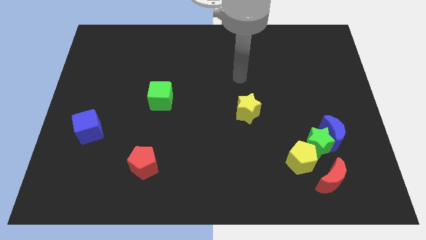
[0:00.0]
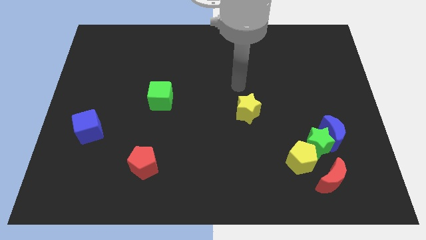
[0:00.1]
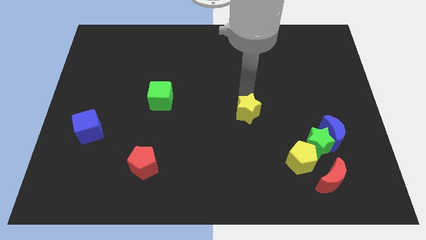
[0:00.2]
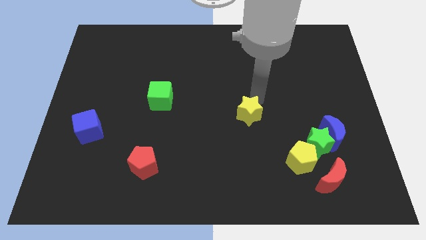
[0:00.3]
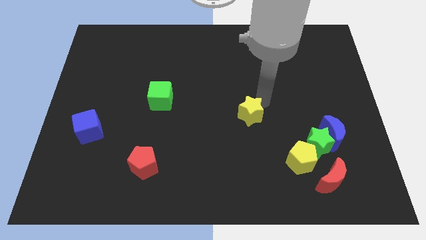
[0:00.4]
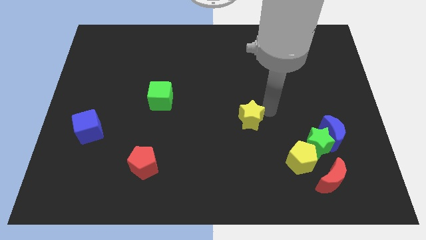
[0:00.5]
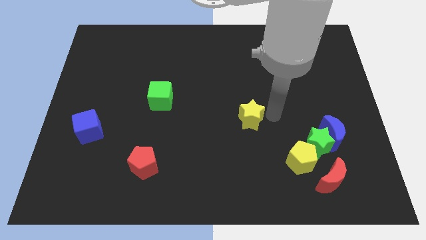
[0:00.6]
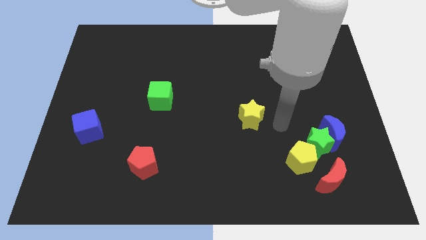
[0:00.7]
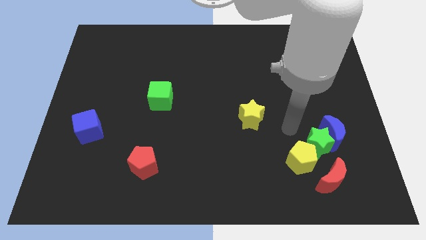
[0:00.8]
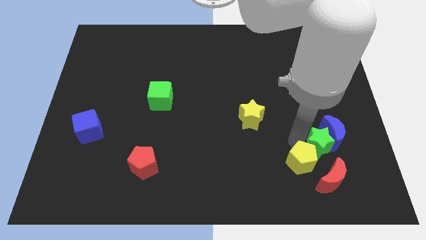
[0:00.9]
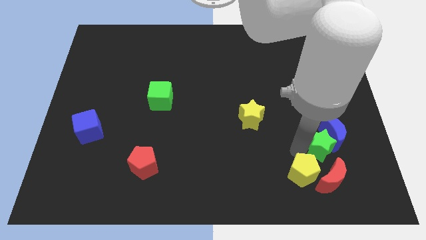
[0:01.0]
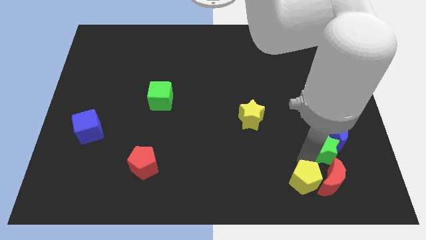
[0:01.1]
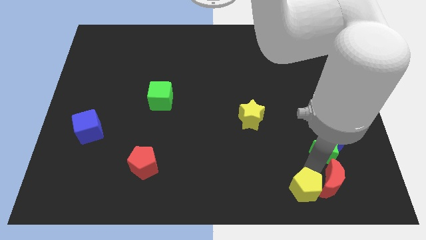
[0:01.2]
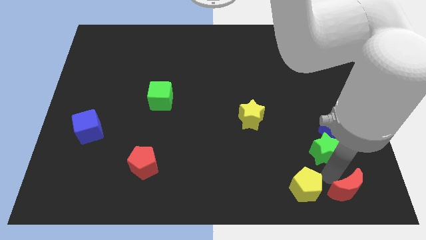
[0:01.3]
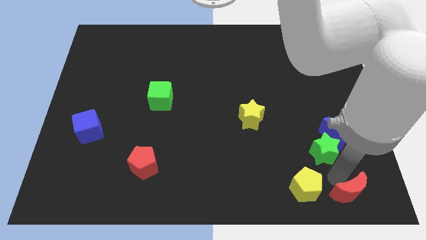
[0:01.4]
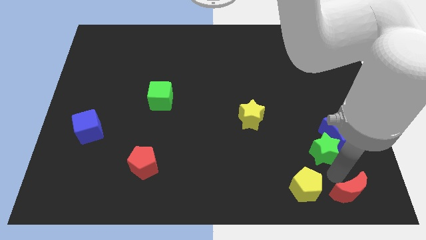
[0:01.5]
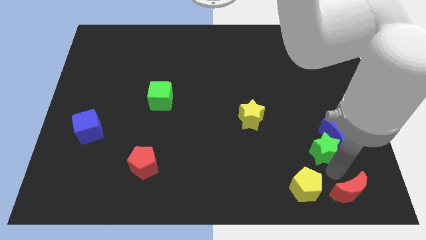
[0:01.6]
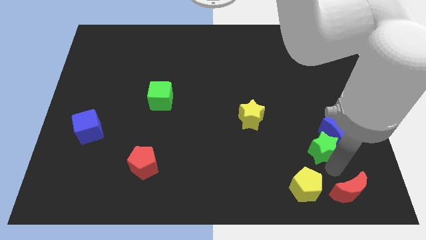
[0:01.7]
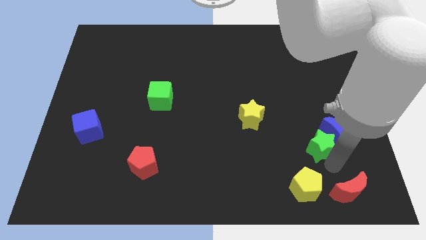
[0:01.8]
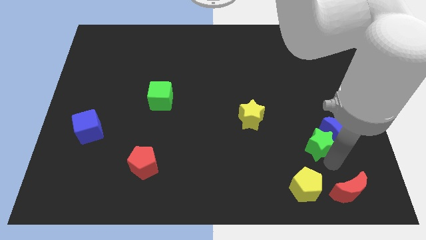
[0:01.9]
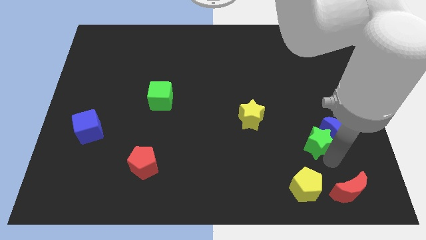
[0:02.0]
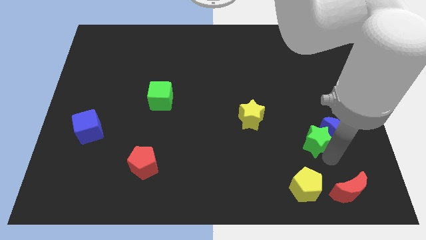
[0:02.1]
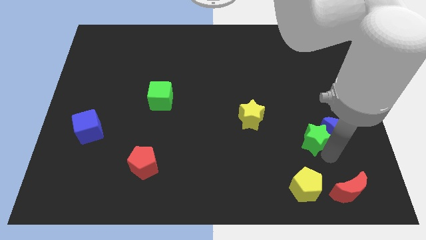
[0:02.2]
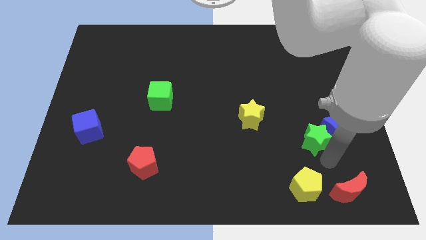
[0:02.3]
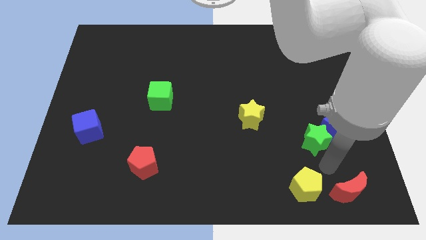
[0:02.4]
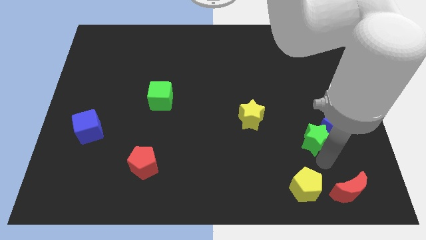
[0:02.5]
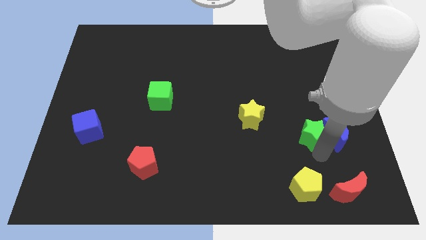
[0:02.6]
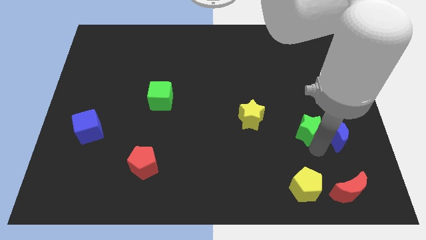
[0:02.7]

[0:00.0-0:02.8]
move the green star away from the blue moon, yellow pentagon, and red moon

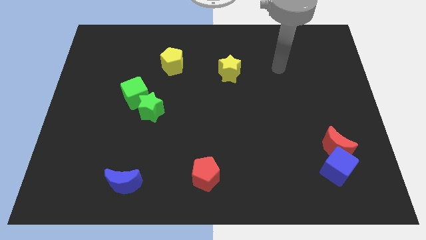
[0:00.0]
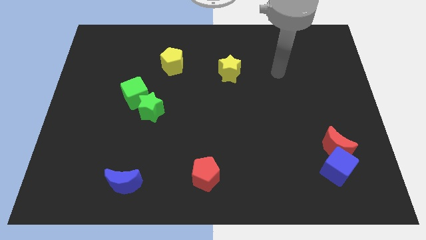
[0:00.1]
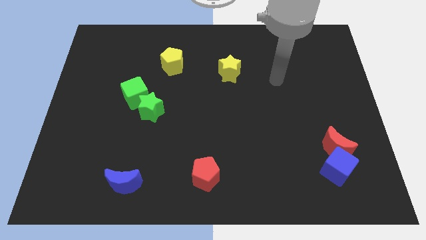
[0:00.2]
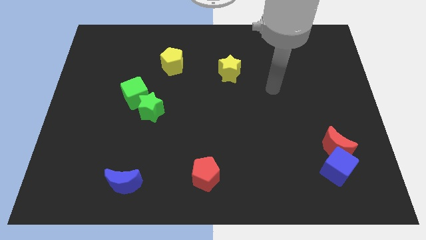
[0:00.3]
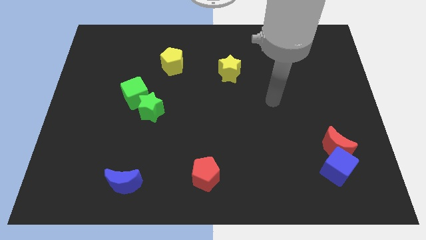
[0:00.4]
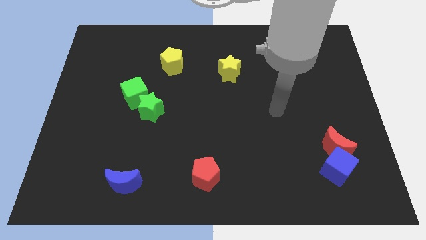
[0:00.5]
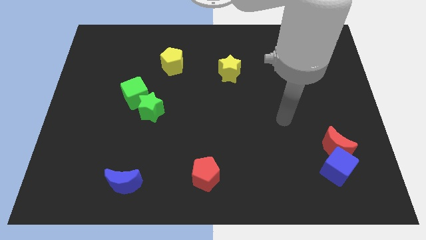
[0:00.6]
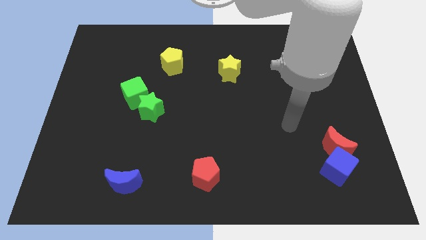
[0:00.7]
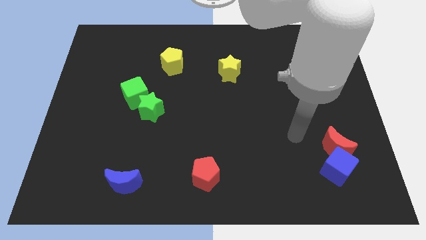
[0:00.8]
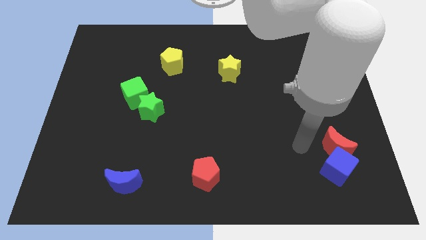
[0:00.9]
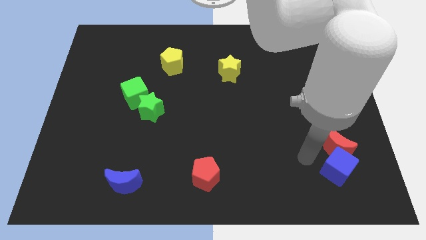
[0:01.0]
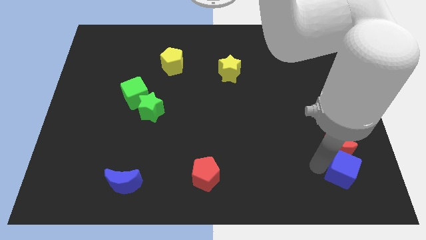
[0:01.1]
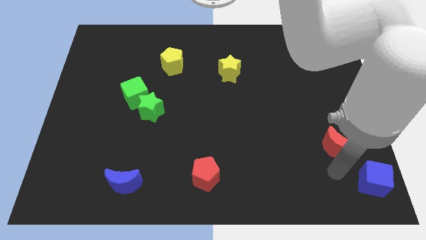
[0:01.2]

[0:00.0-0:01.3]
separate the red moon from the blue cube

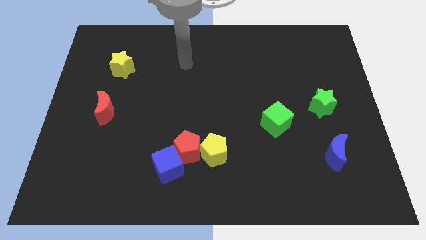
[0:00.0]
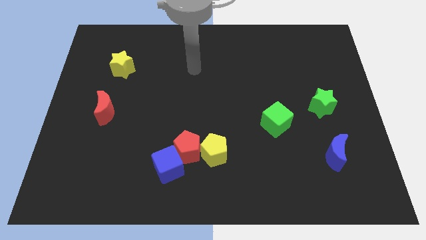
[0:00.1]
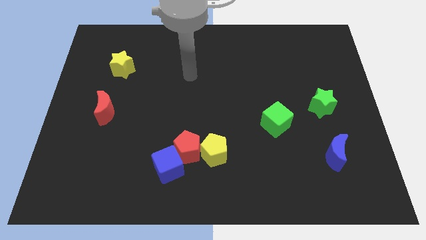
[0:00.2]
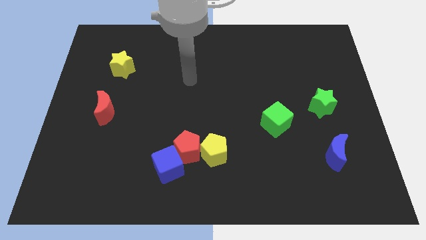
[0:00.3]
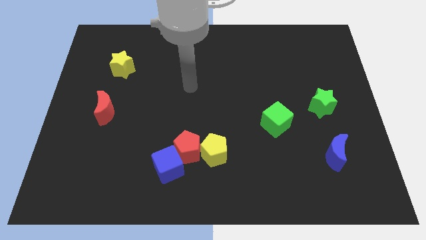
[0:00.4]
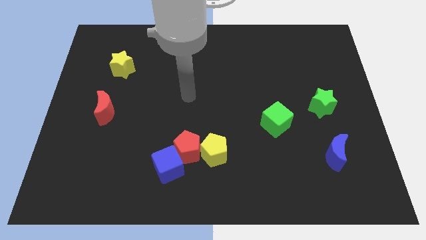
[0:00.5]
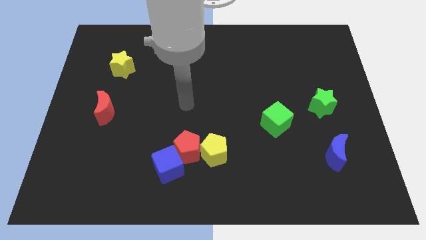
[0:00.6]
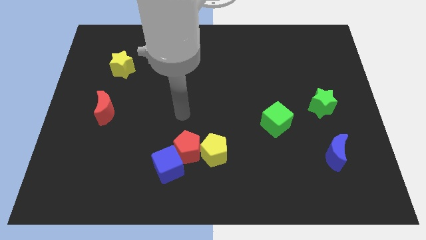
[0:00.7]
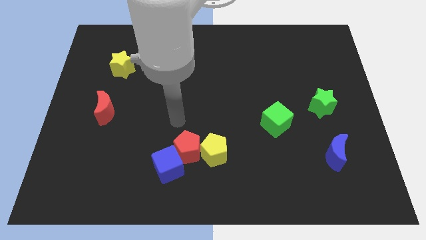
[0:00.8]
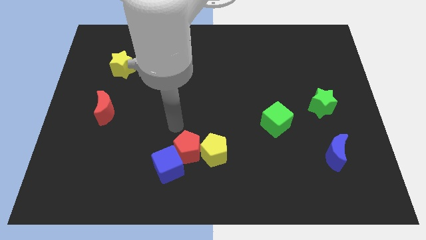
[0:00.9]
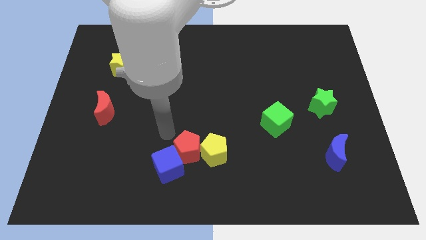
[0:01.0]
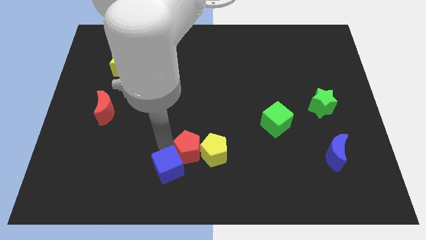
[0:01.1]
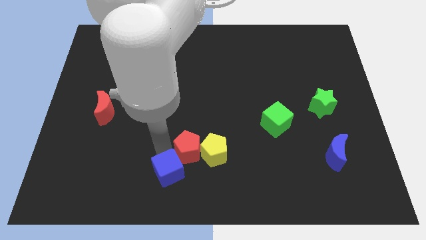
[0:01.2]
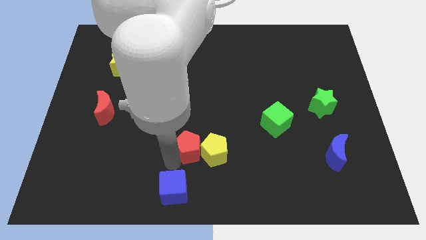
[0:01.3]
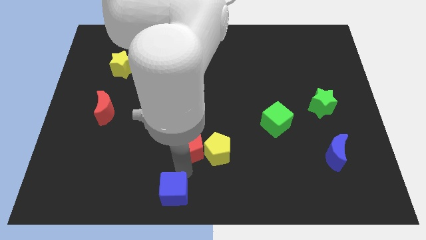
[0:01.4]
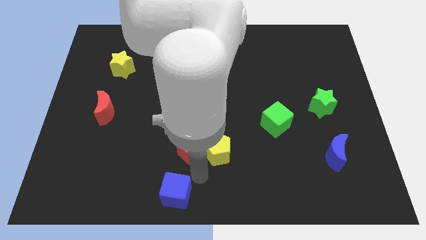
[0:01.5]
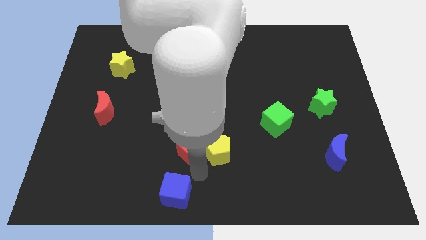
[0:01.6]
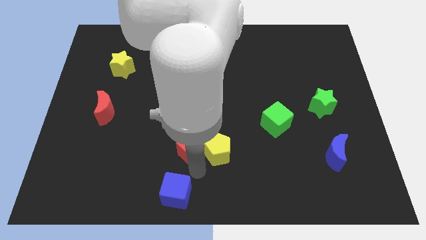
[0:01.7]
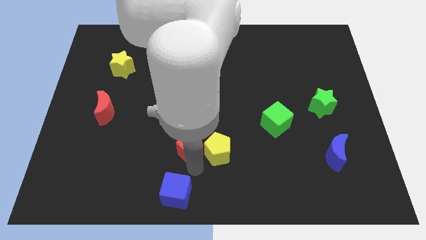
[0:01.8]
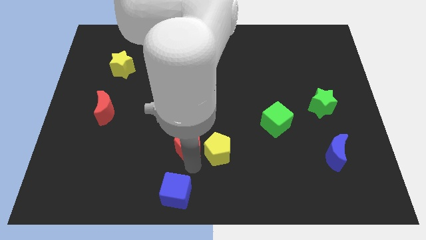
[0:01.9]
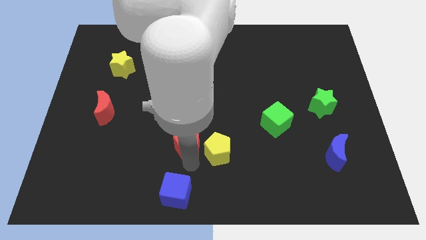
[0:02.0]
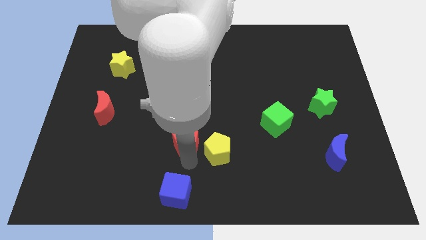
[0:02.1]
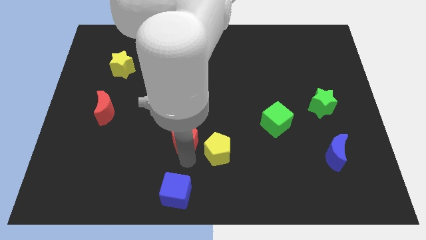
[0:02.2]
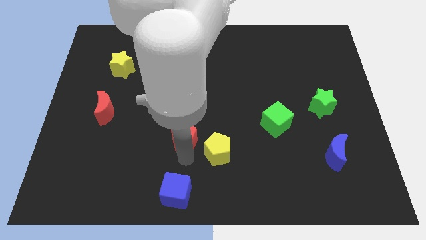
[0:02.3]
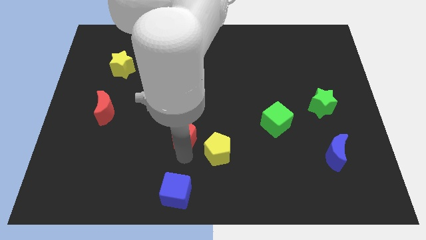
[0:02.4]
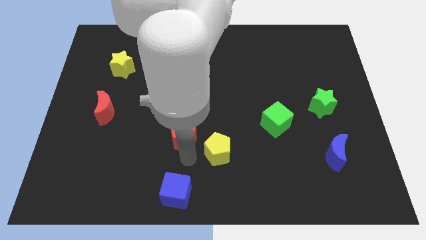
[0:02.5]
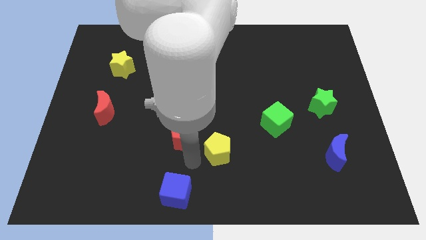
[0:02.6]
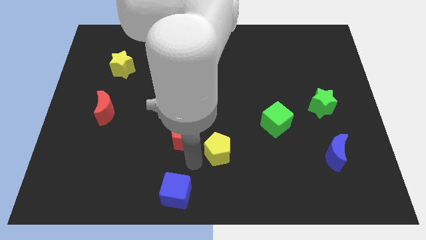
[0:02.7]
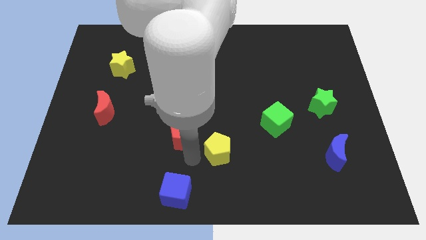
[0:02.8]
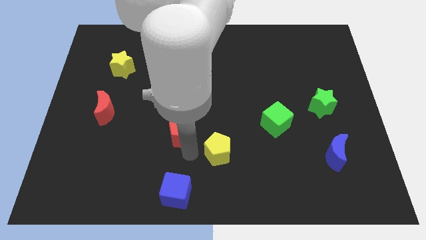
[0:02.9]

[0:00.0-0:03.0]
move the red pentagon away from the blue cube and yellow pentagon

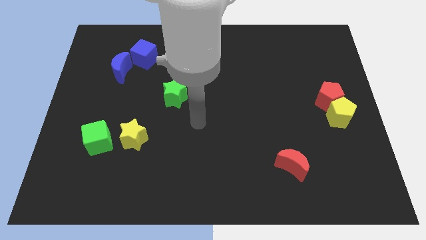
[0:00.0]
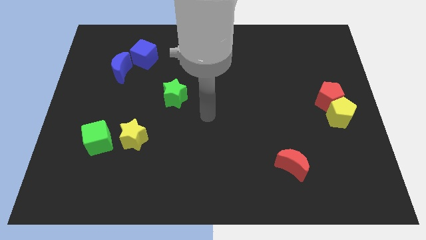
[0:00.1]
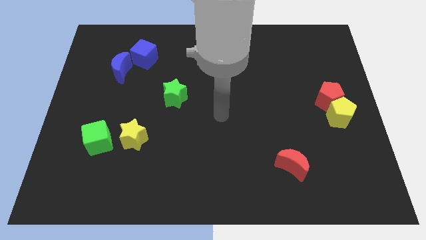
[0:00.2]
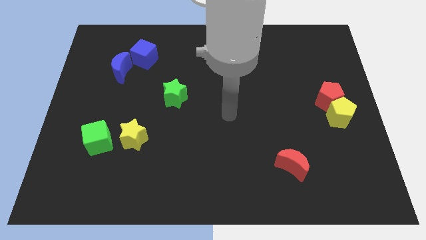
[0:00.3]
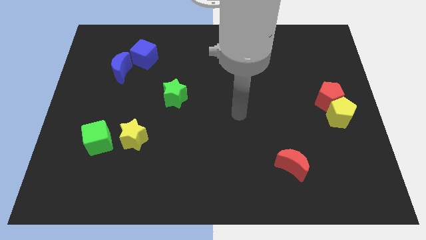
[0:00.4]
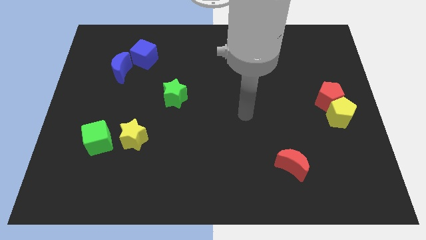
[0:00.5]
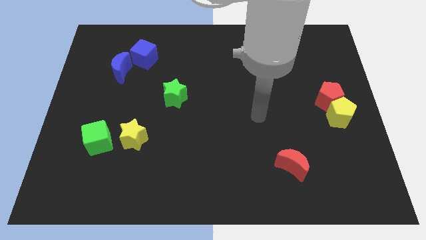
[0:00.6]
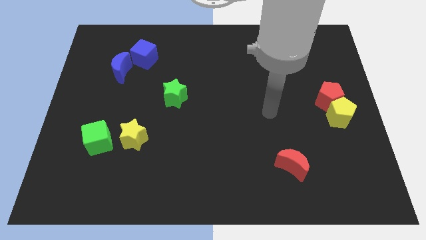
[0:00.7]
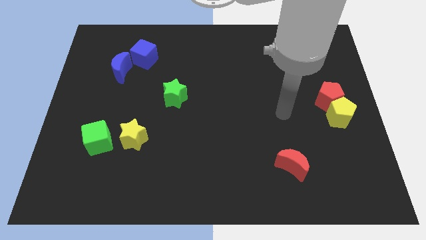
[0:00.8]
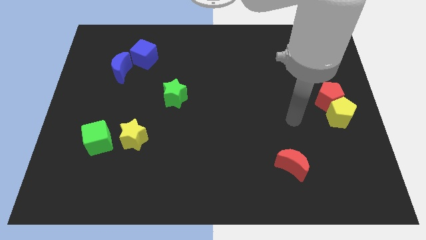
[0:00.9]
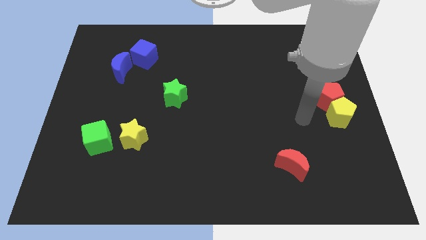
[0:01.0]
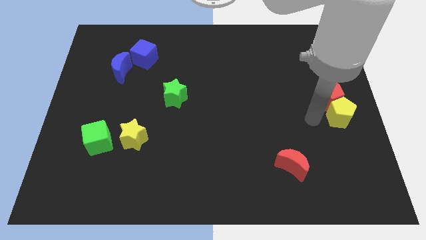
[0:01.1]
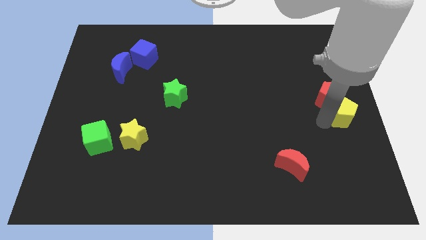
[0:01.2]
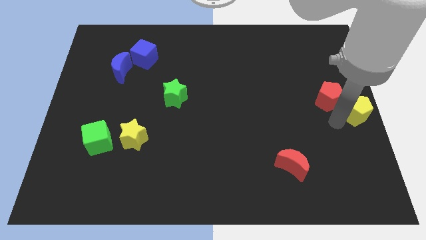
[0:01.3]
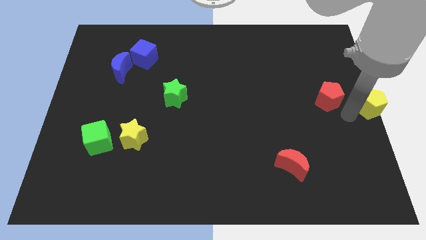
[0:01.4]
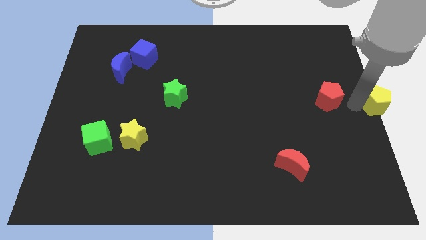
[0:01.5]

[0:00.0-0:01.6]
pull the red pentagon apart from the yellow pentagon

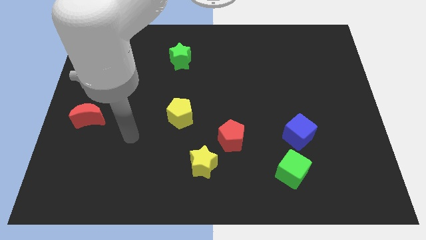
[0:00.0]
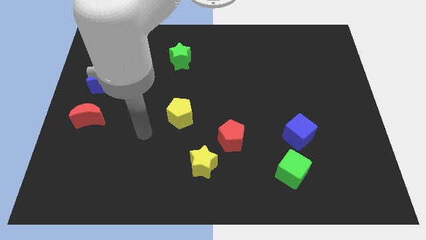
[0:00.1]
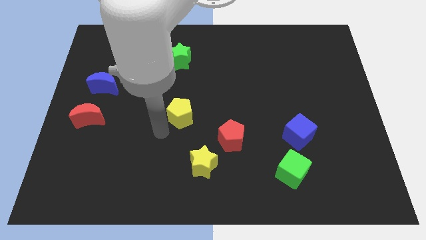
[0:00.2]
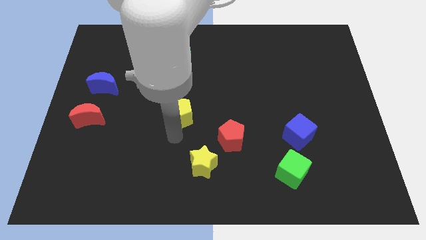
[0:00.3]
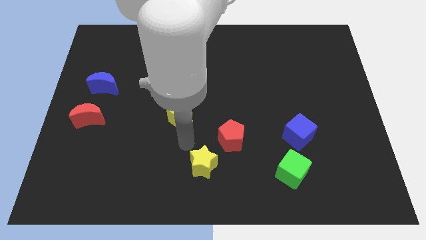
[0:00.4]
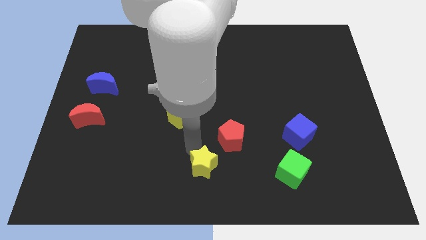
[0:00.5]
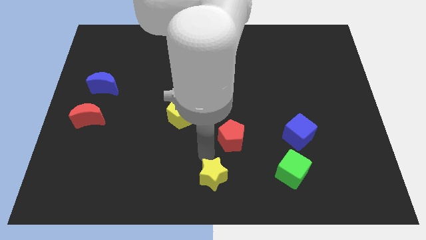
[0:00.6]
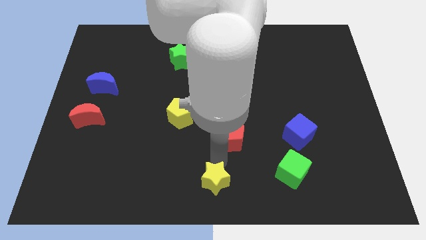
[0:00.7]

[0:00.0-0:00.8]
move the red pentagon away from the yellow star
